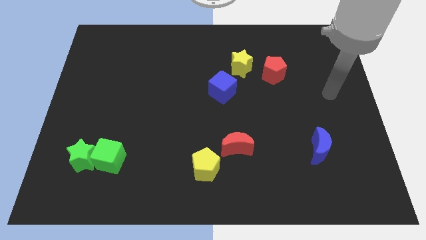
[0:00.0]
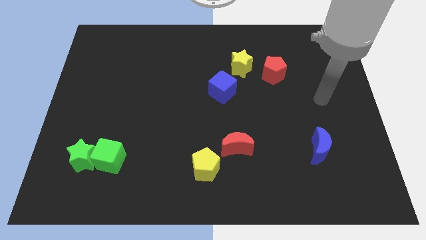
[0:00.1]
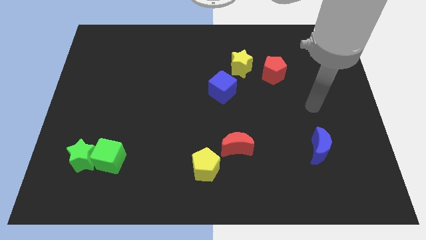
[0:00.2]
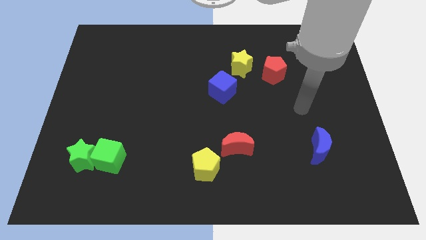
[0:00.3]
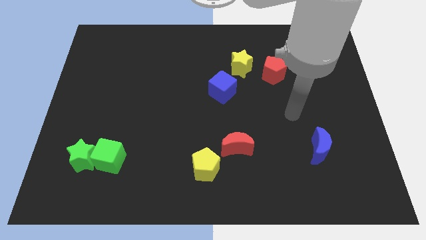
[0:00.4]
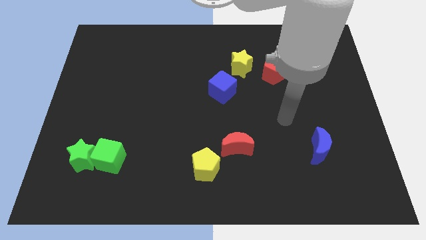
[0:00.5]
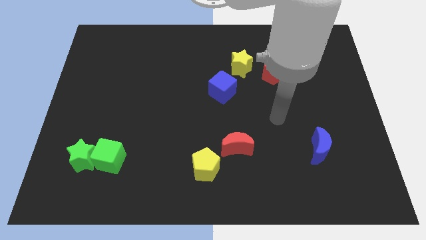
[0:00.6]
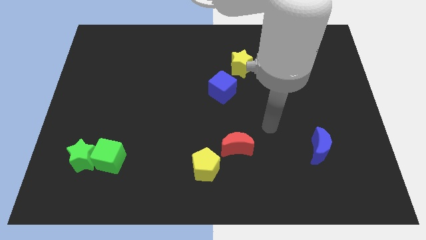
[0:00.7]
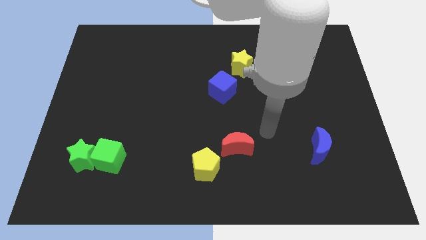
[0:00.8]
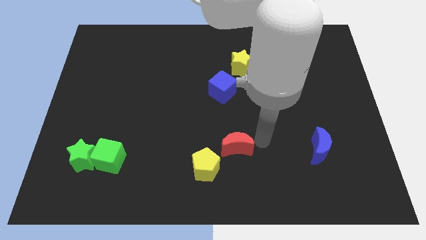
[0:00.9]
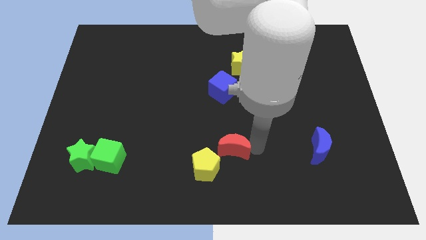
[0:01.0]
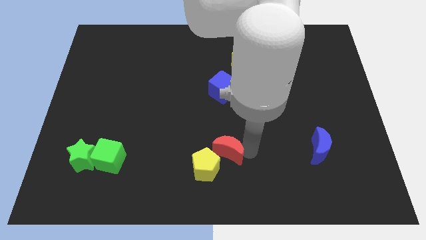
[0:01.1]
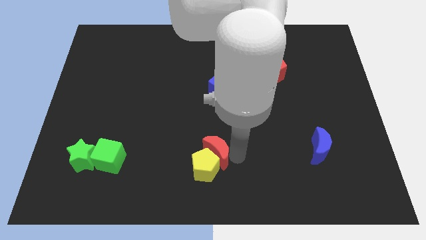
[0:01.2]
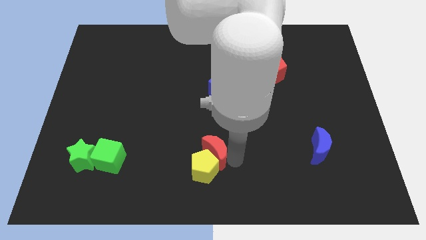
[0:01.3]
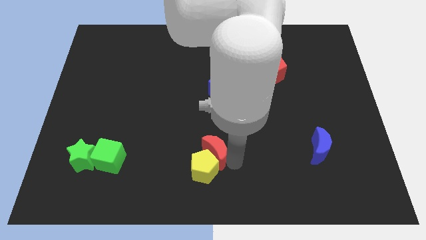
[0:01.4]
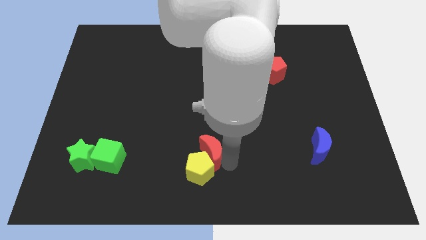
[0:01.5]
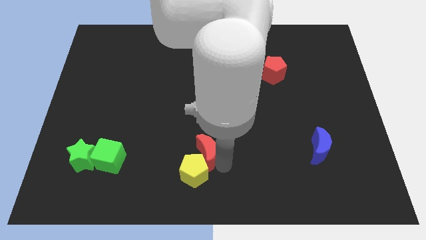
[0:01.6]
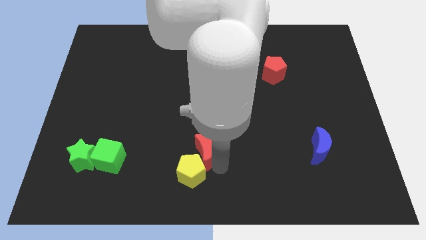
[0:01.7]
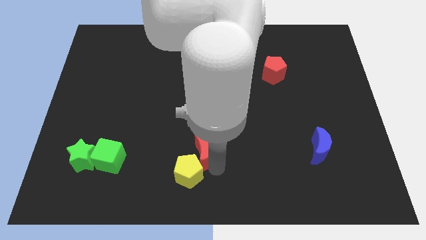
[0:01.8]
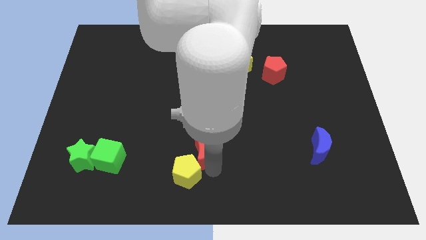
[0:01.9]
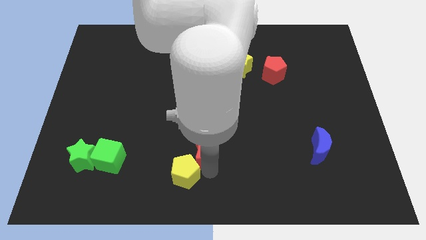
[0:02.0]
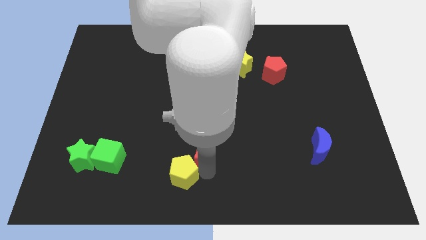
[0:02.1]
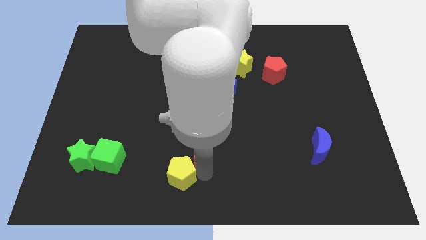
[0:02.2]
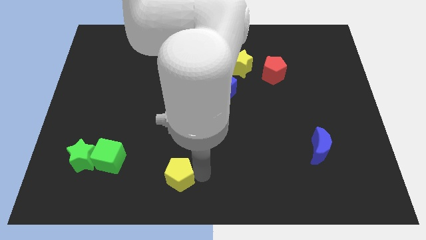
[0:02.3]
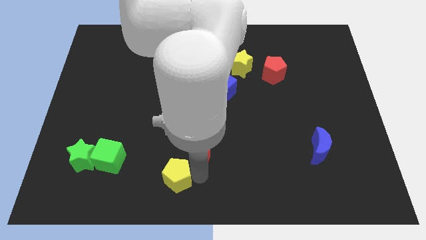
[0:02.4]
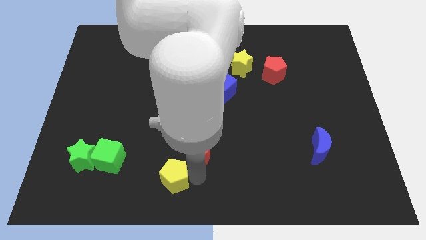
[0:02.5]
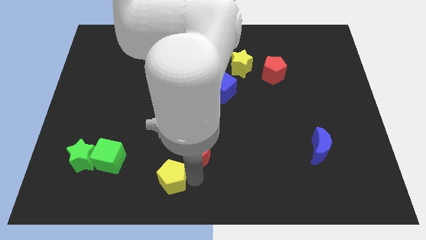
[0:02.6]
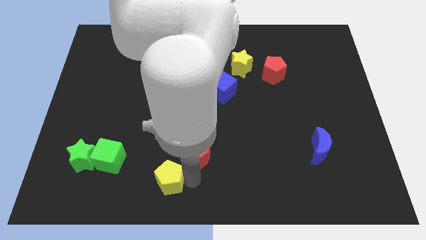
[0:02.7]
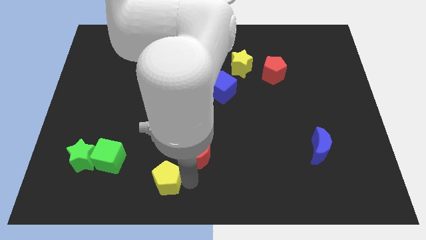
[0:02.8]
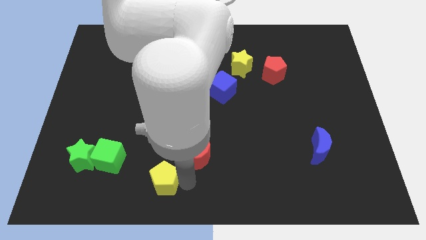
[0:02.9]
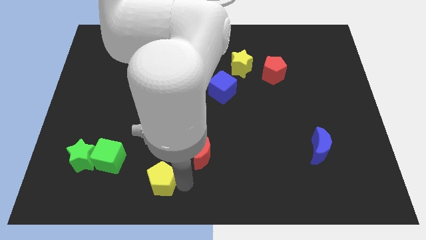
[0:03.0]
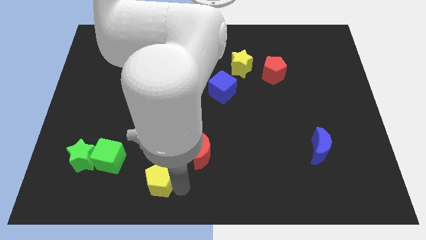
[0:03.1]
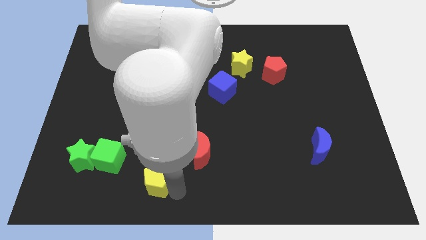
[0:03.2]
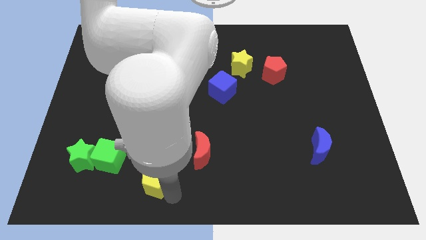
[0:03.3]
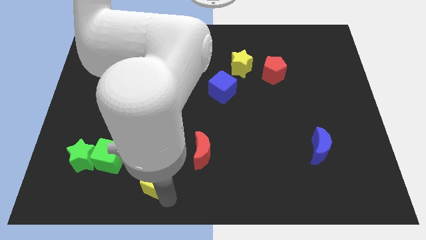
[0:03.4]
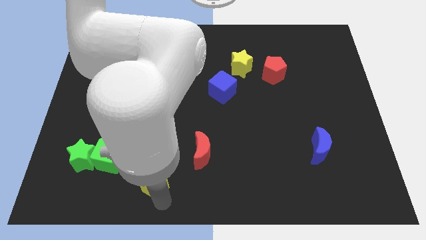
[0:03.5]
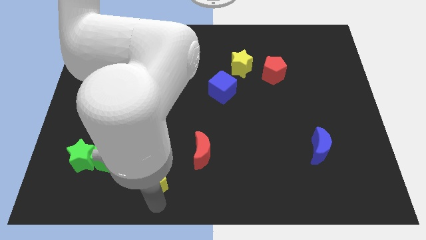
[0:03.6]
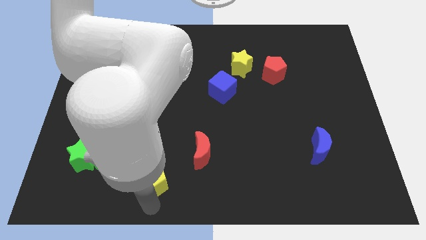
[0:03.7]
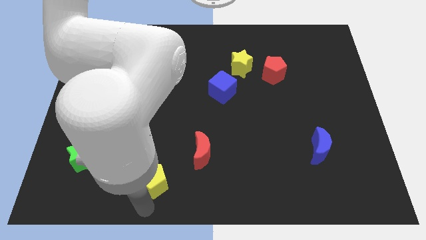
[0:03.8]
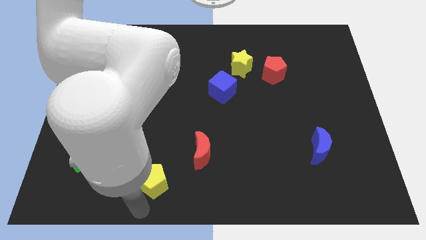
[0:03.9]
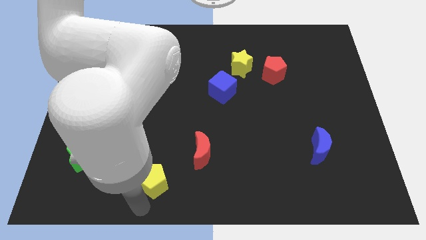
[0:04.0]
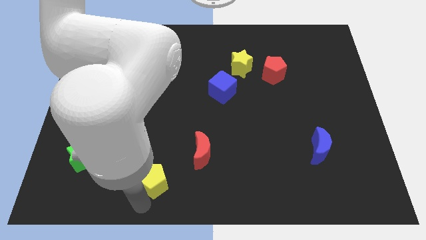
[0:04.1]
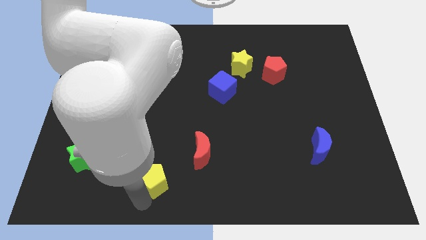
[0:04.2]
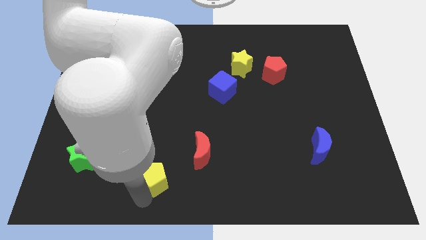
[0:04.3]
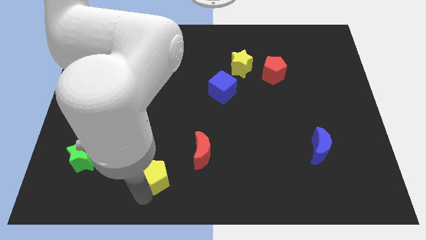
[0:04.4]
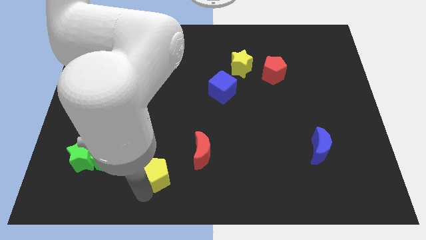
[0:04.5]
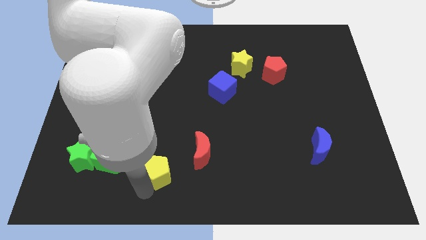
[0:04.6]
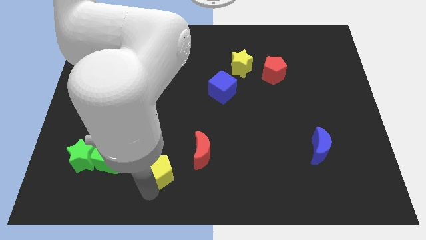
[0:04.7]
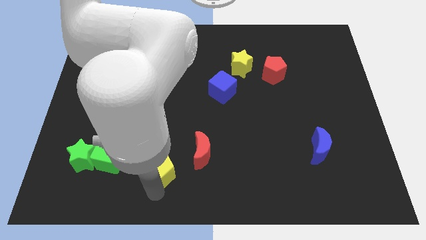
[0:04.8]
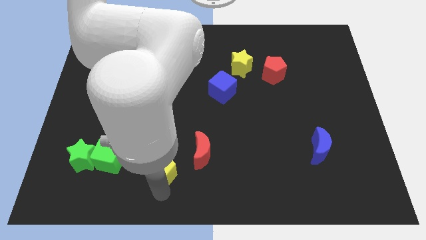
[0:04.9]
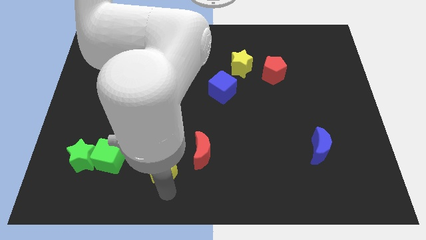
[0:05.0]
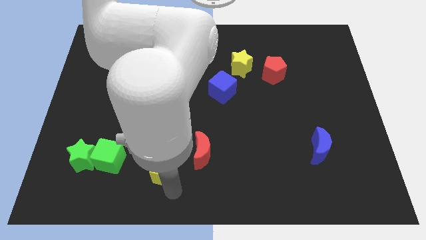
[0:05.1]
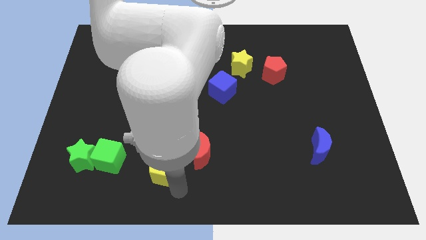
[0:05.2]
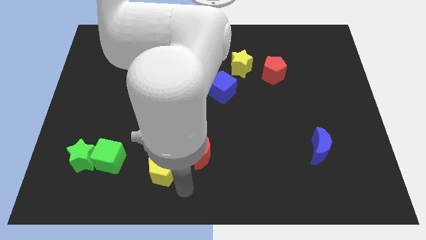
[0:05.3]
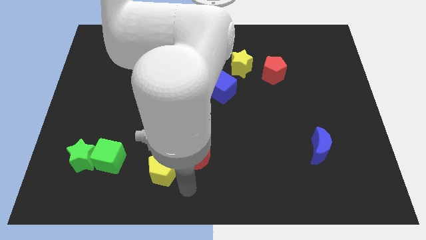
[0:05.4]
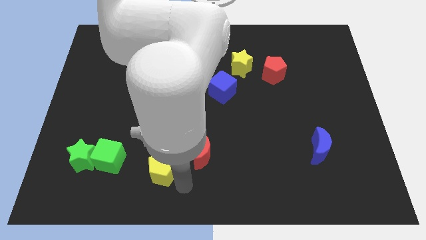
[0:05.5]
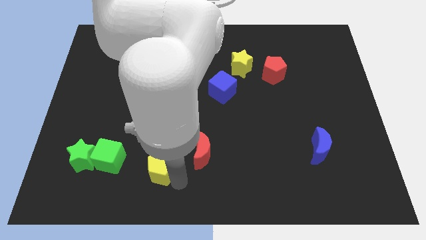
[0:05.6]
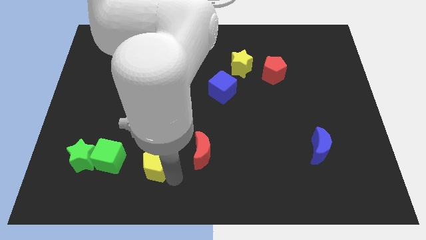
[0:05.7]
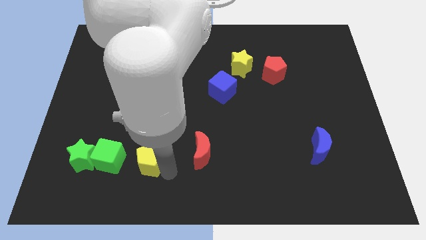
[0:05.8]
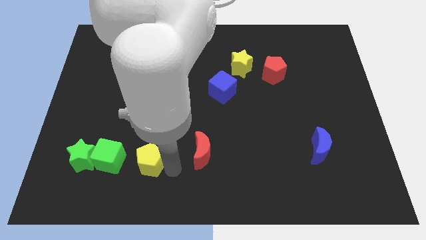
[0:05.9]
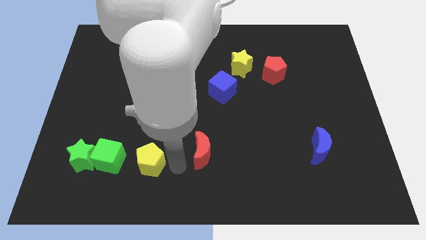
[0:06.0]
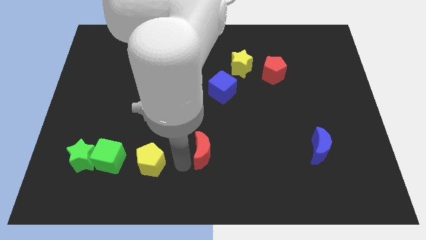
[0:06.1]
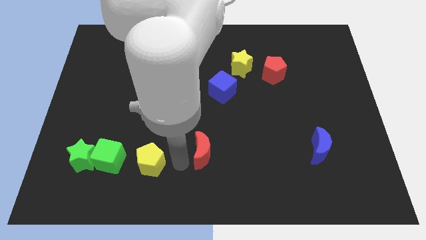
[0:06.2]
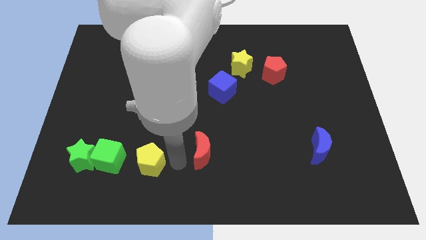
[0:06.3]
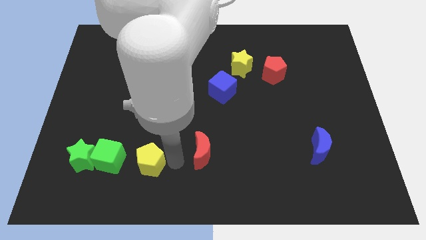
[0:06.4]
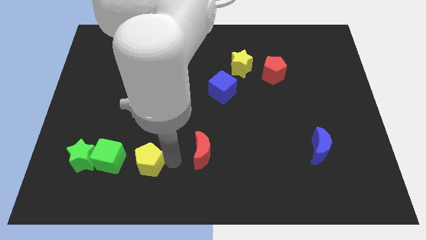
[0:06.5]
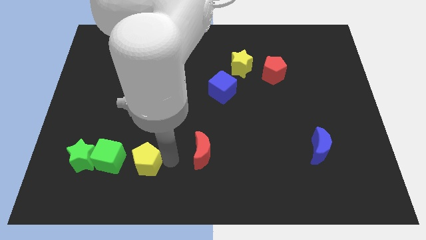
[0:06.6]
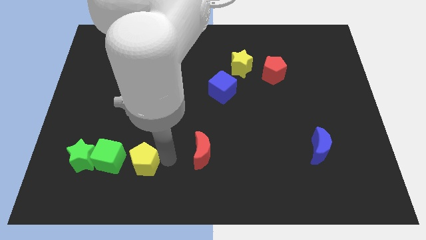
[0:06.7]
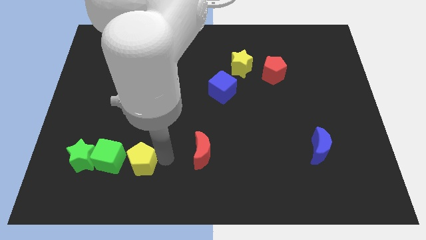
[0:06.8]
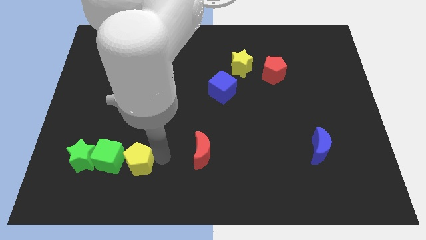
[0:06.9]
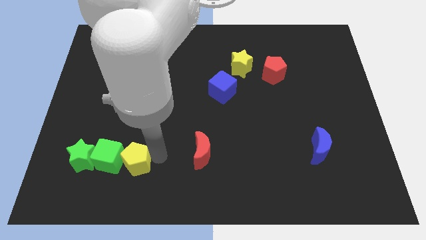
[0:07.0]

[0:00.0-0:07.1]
push the yellow pentagon towards the green cube

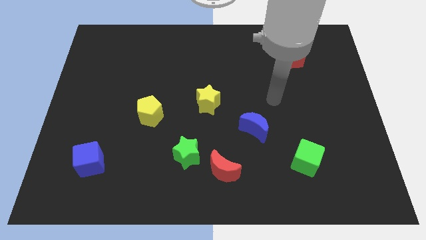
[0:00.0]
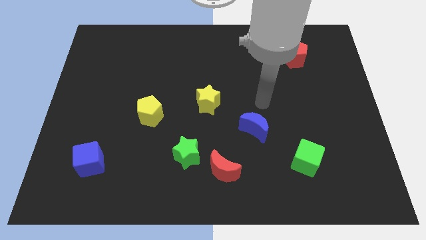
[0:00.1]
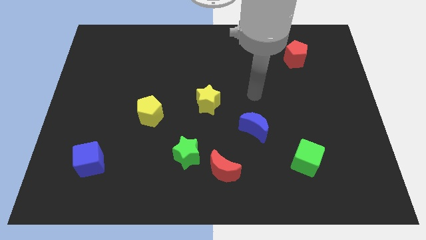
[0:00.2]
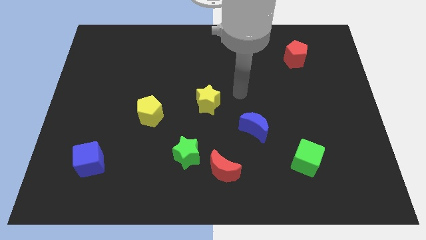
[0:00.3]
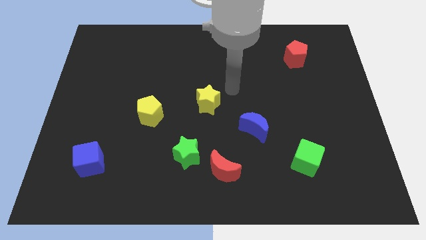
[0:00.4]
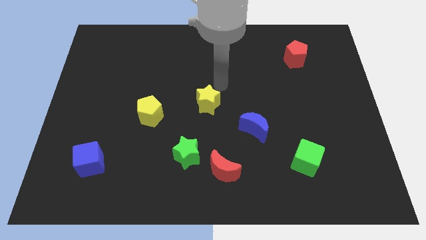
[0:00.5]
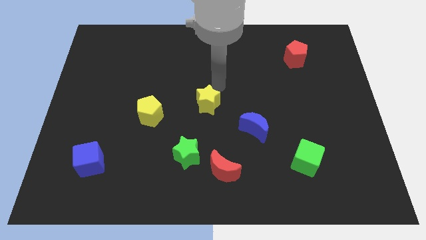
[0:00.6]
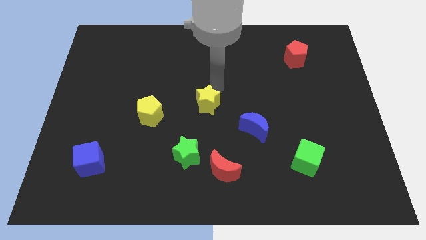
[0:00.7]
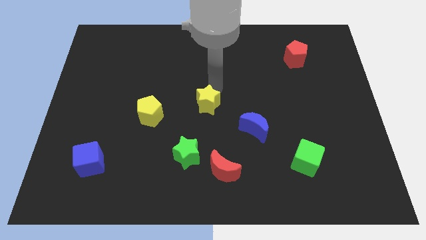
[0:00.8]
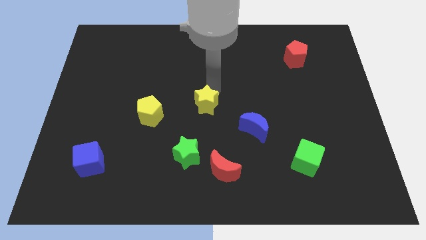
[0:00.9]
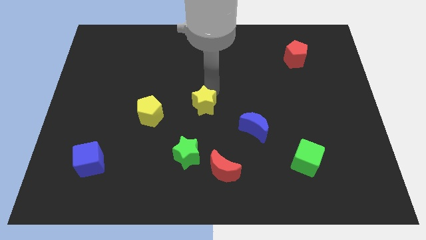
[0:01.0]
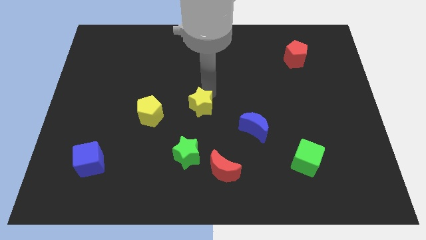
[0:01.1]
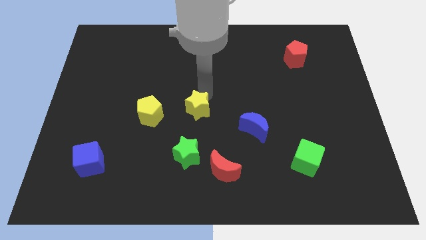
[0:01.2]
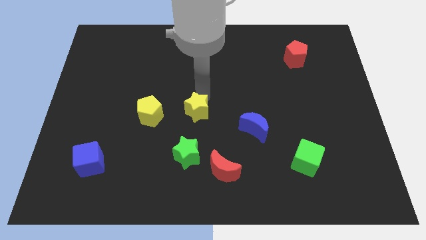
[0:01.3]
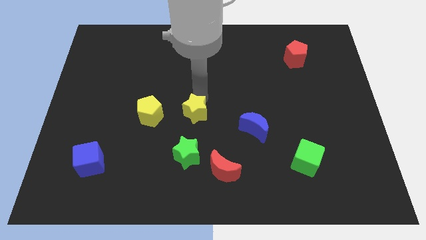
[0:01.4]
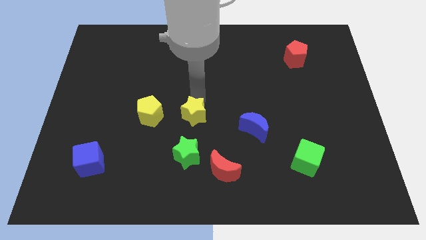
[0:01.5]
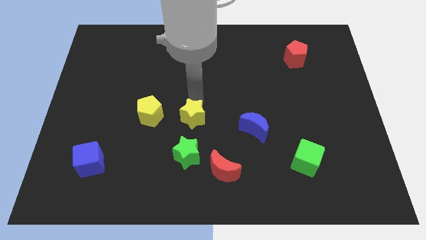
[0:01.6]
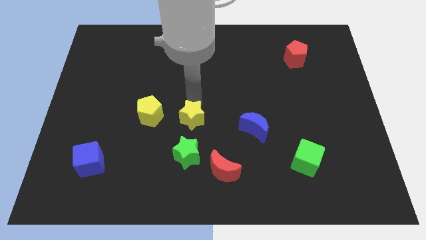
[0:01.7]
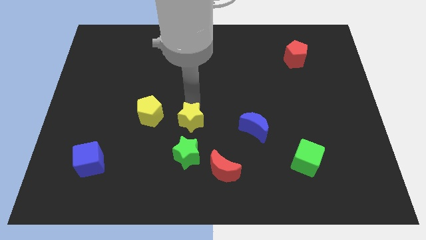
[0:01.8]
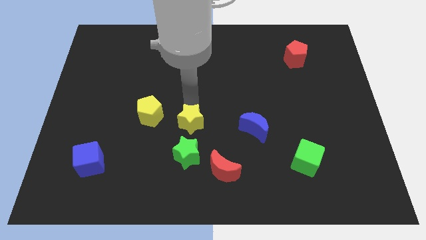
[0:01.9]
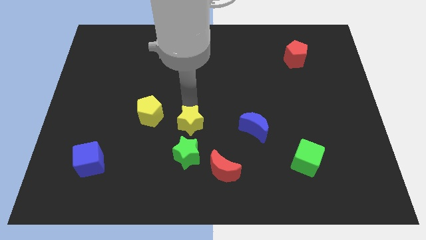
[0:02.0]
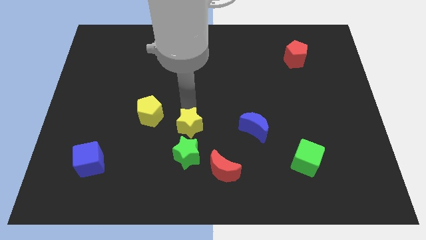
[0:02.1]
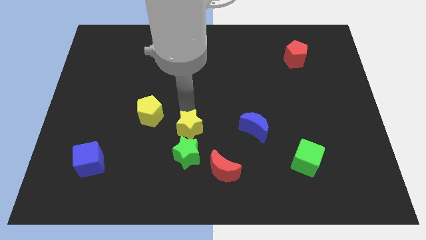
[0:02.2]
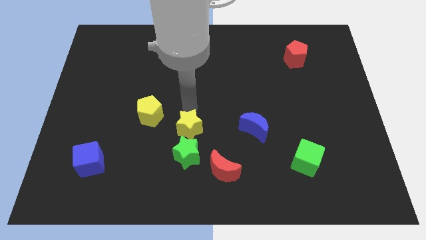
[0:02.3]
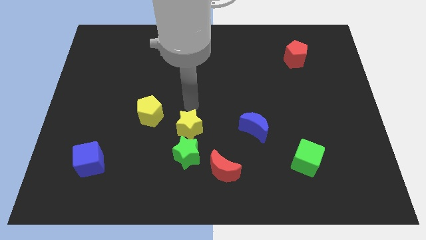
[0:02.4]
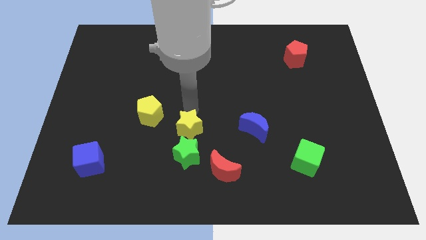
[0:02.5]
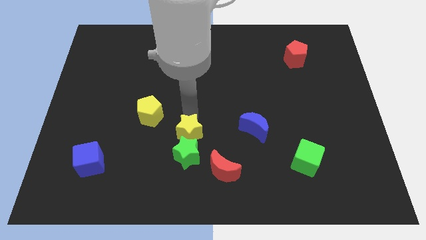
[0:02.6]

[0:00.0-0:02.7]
put the yellow star next to the green star
